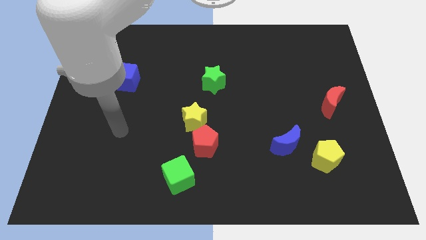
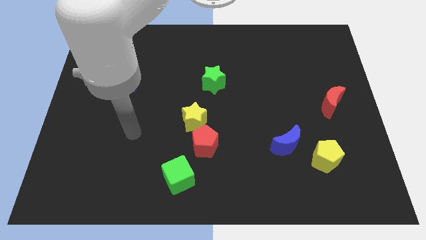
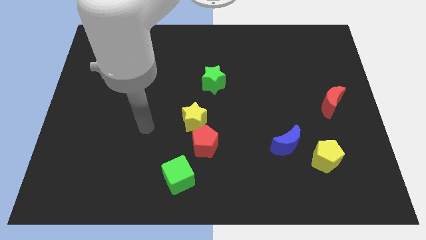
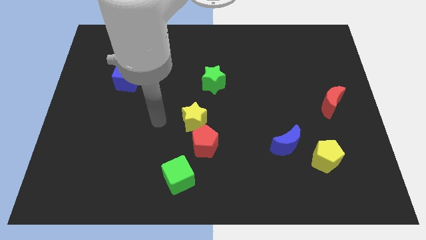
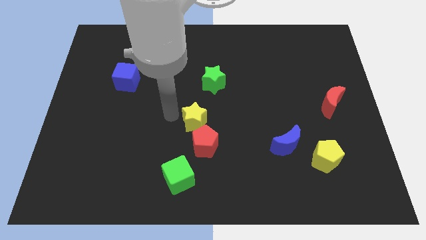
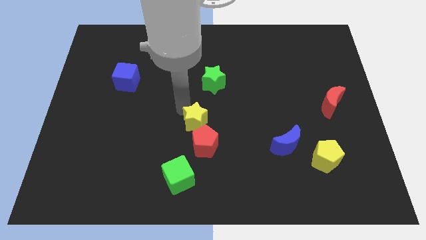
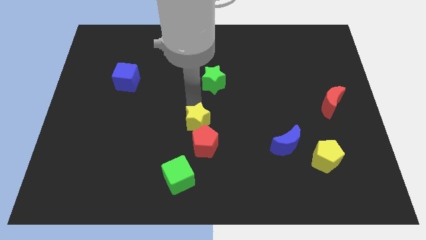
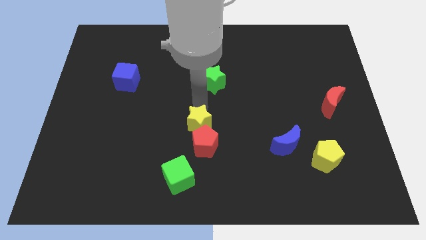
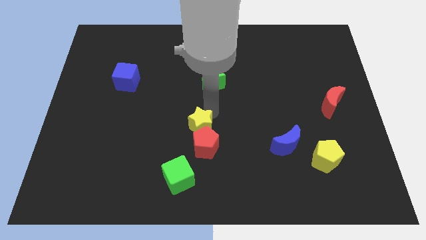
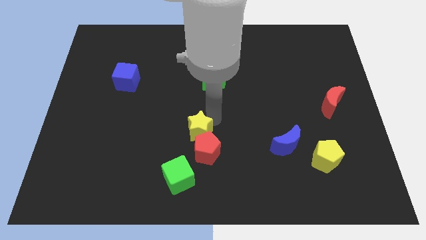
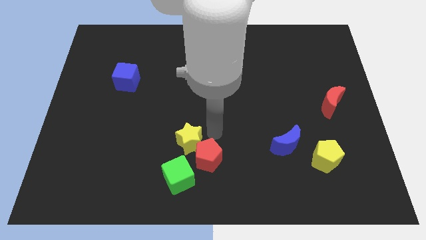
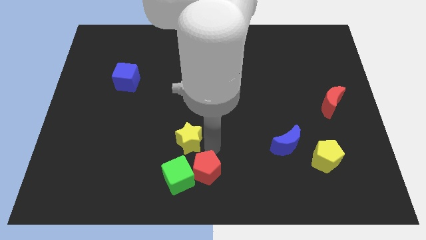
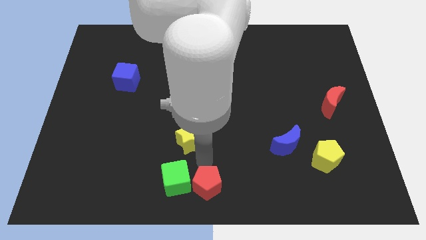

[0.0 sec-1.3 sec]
separate the yellow star from the red pentagon

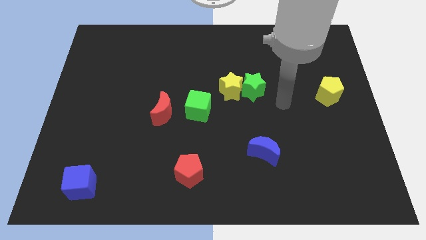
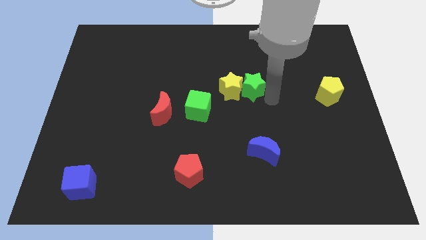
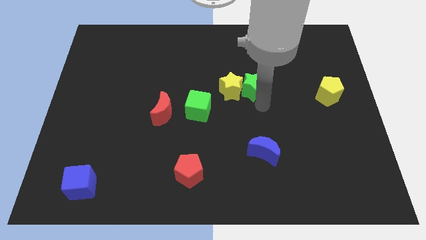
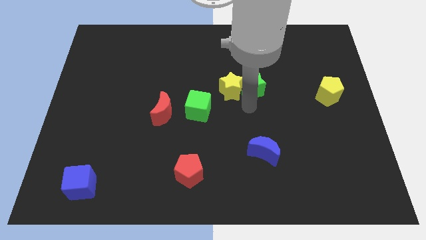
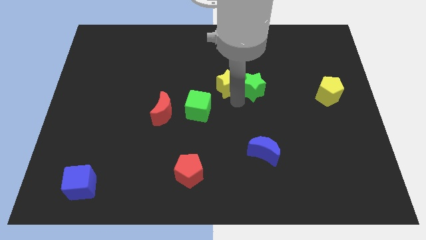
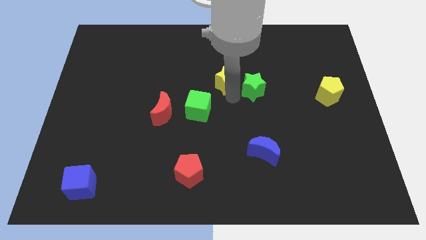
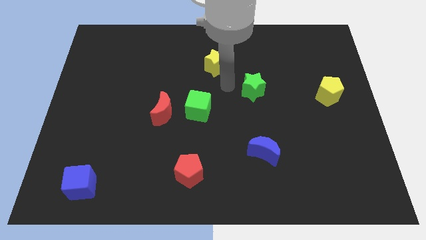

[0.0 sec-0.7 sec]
move the green star away from the yellow star

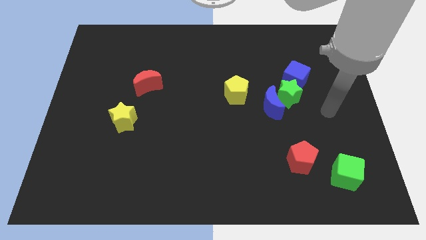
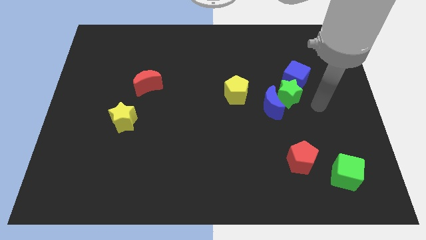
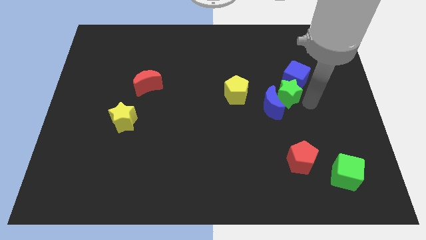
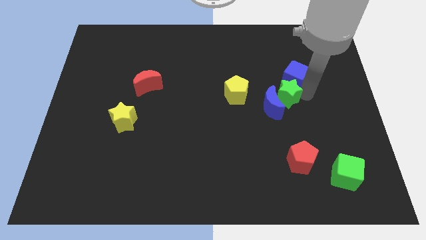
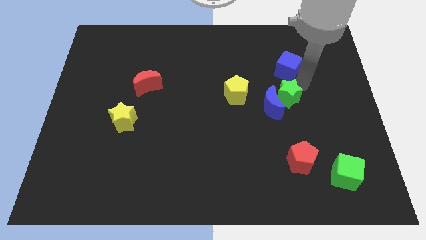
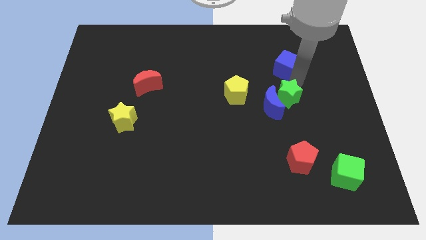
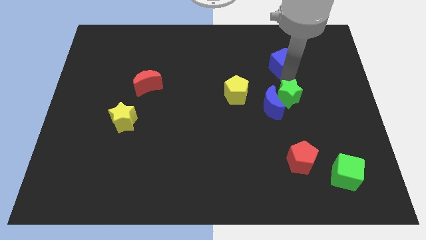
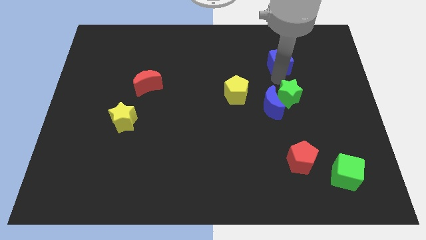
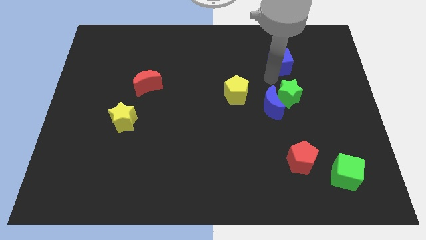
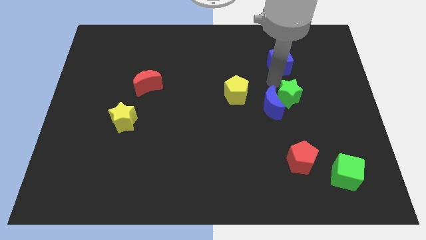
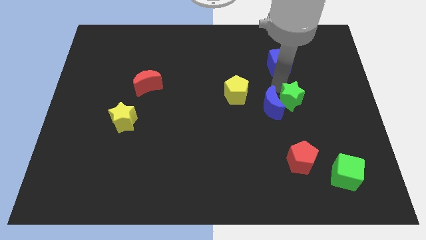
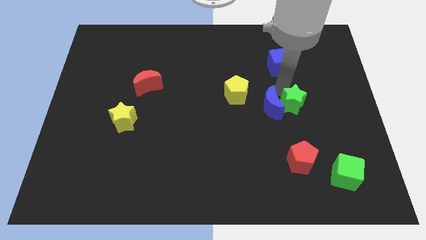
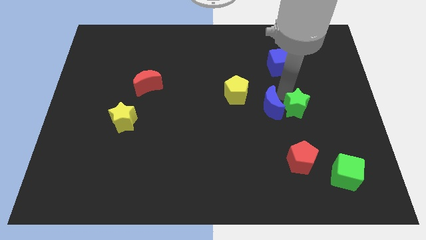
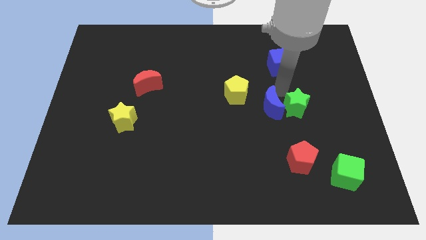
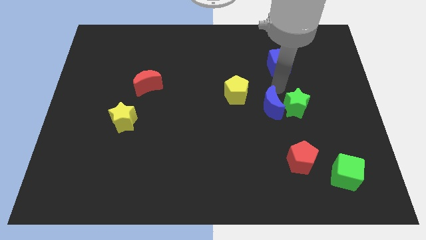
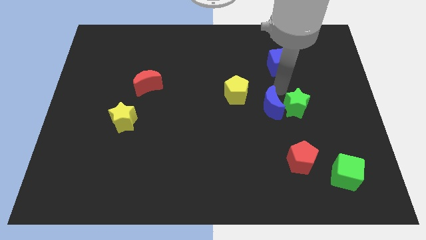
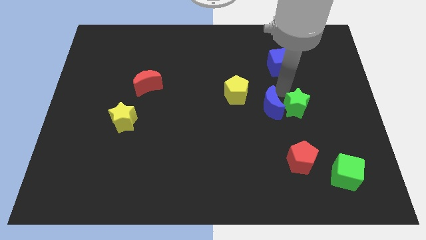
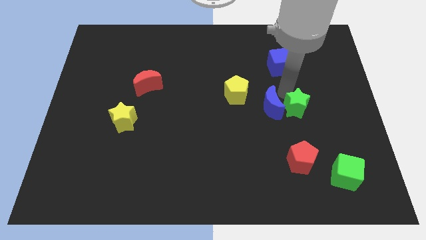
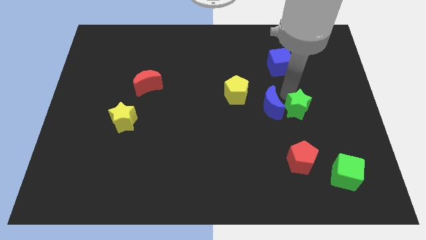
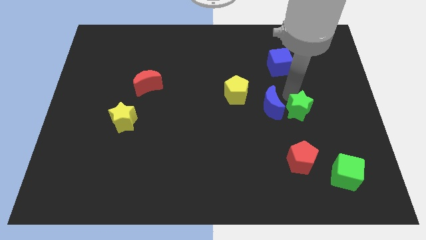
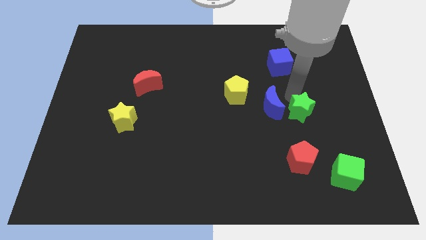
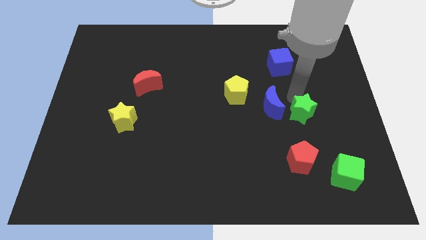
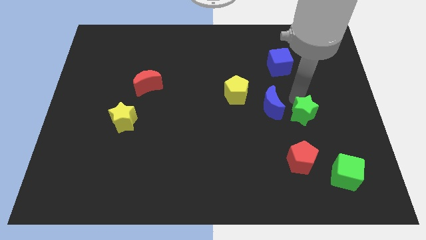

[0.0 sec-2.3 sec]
move the green star away from the blue moon and blue cube

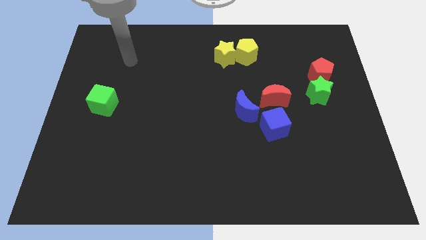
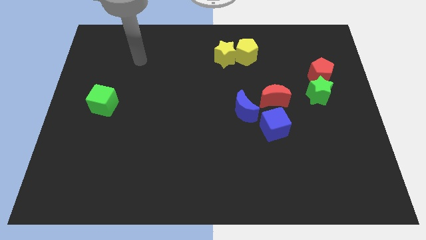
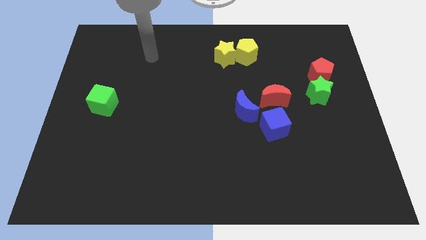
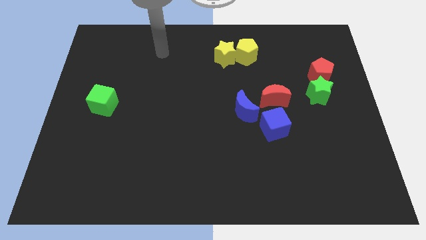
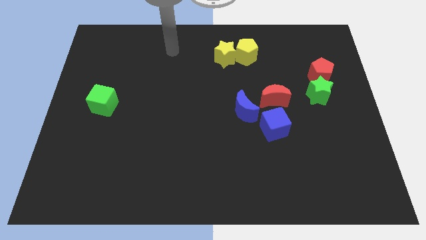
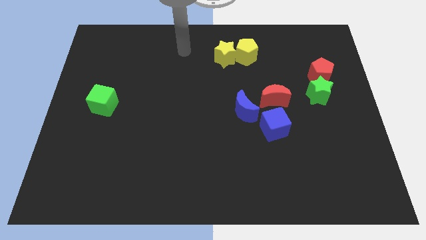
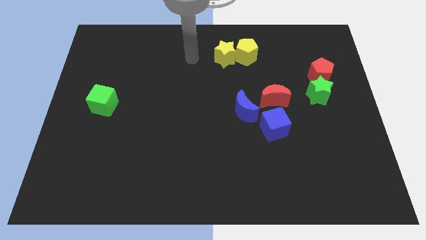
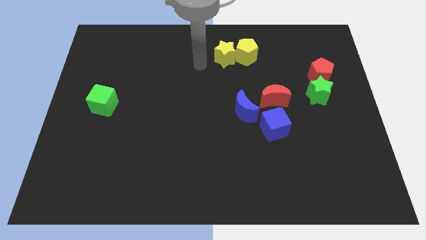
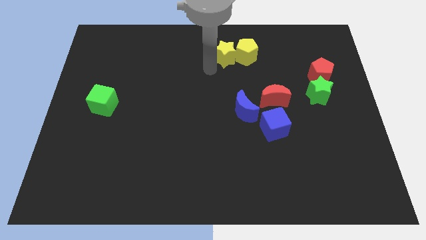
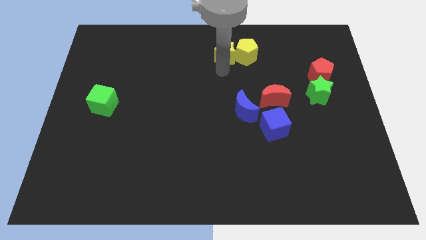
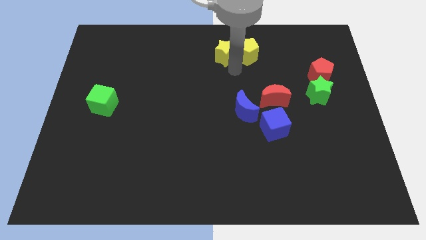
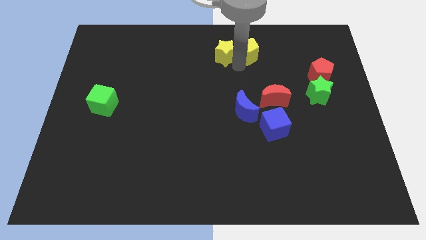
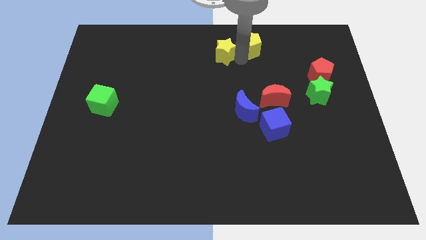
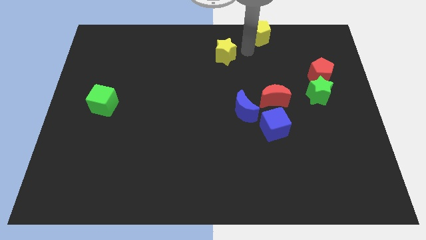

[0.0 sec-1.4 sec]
move the yellow star away from the yellow pentagon

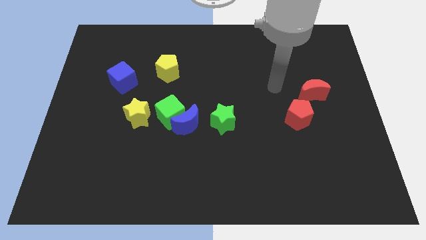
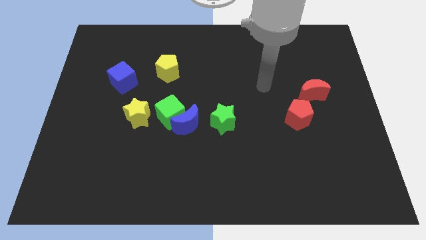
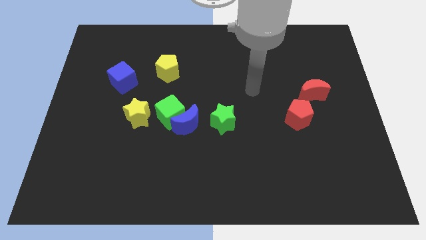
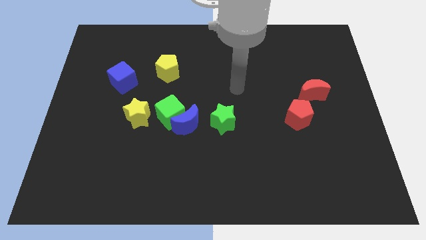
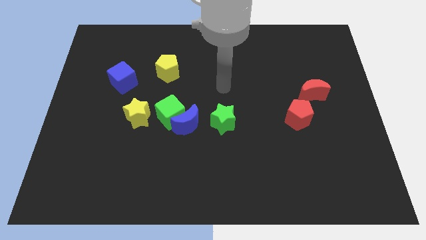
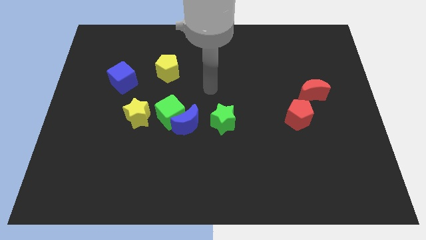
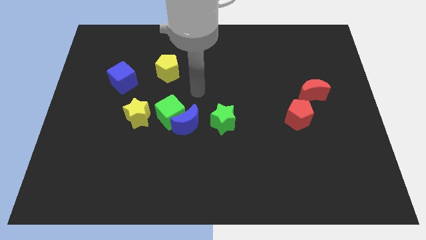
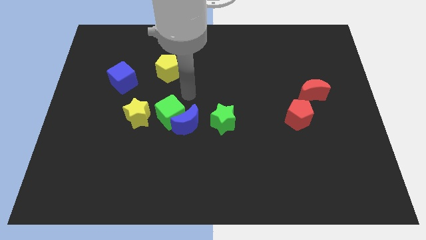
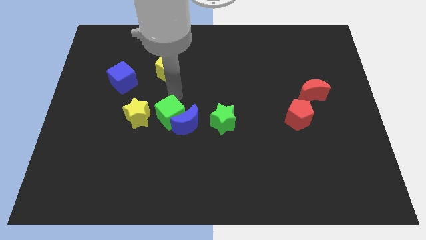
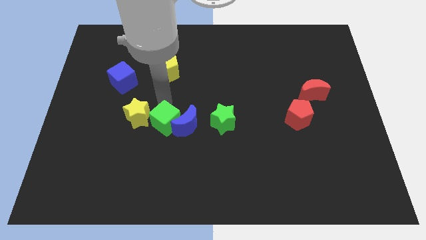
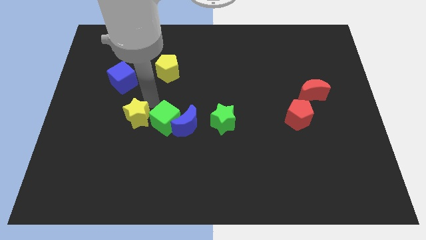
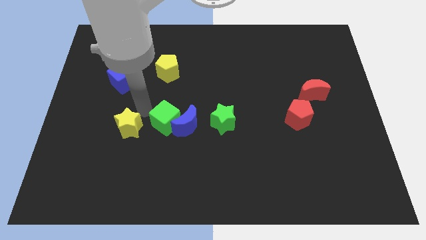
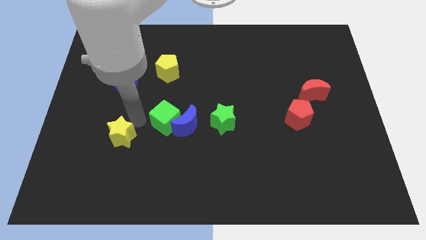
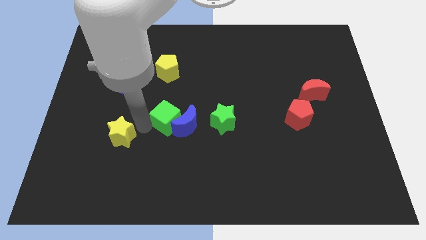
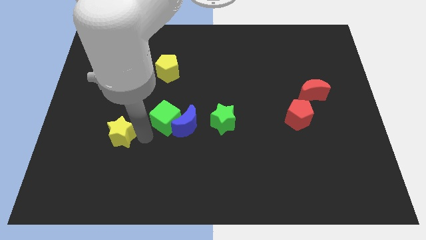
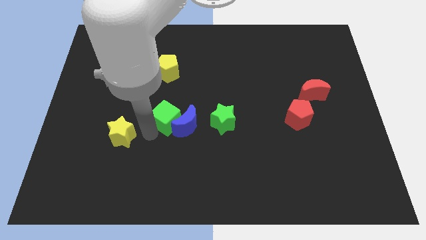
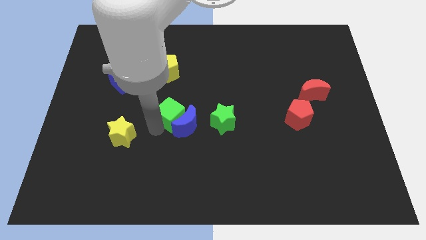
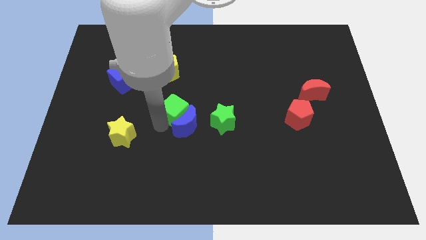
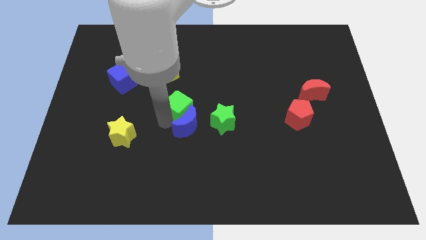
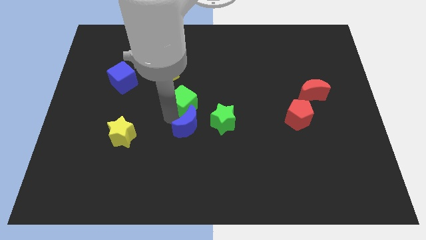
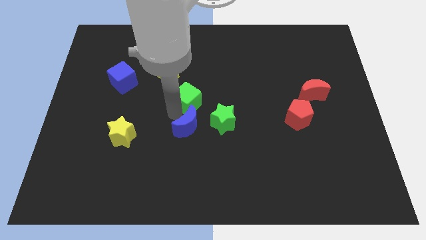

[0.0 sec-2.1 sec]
separate the green cube from the blue moon and yellow star

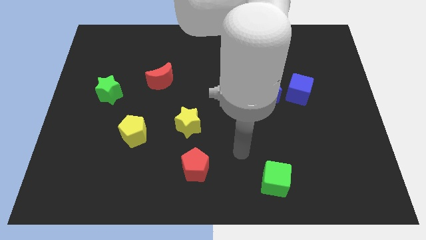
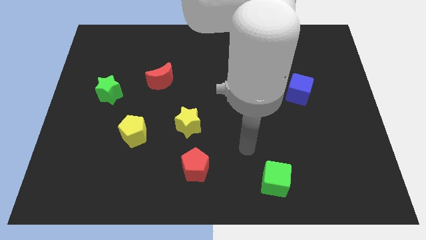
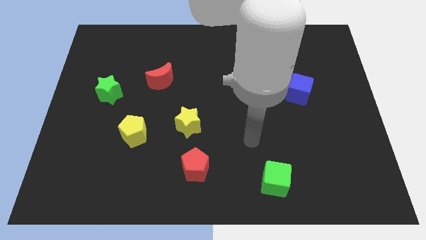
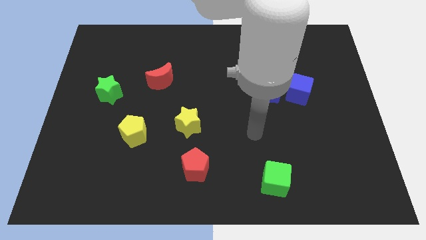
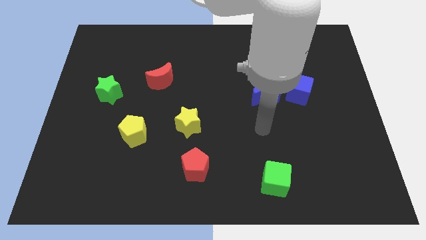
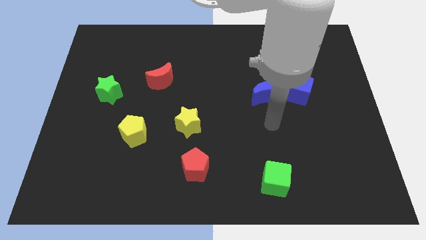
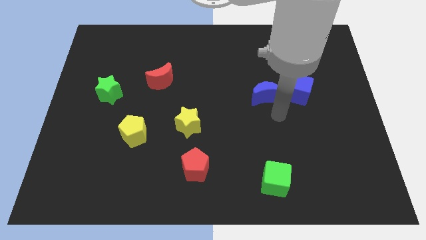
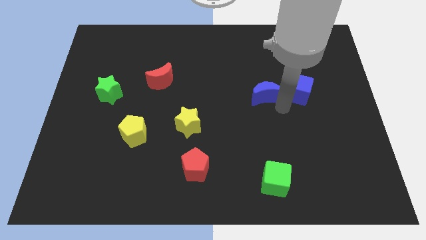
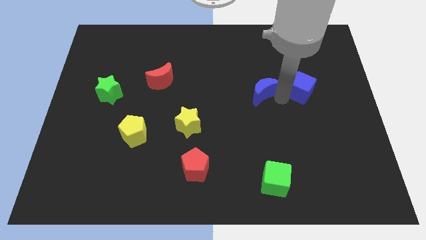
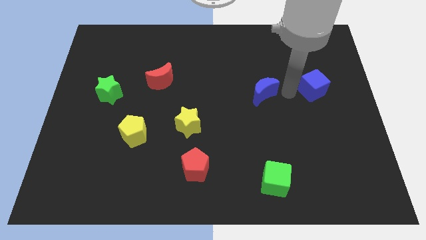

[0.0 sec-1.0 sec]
separate the blue moon from the blue cube

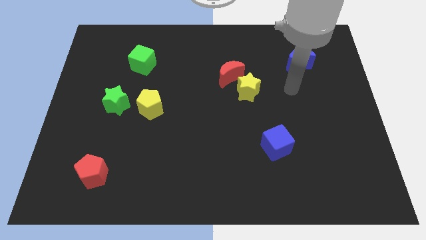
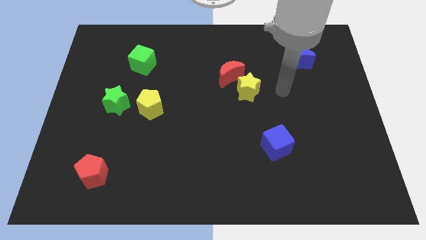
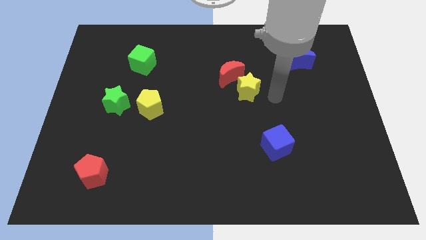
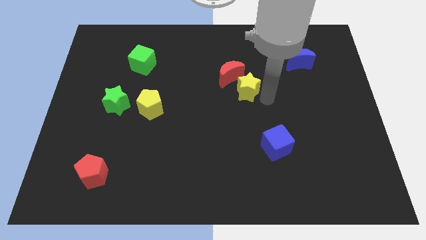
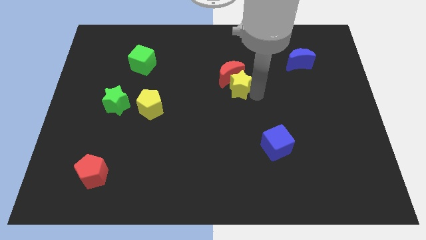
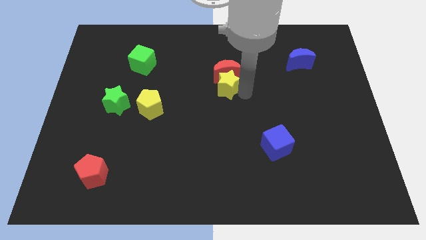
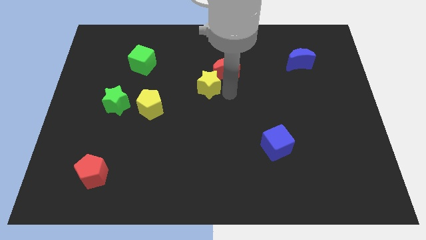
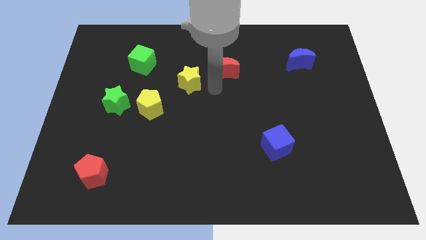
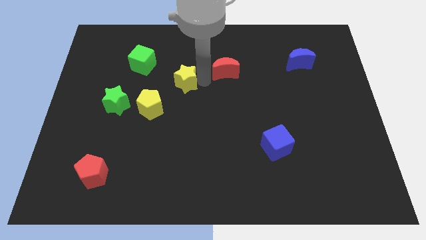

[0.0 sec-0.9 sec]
pull the red moon apart from the yellow star
